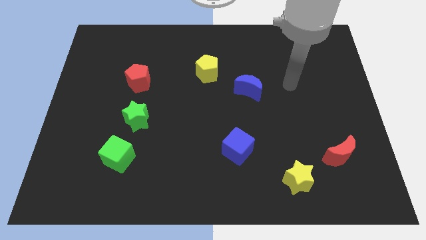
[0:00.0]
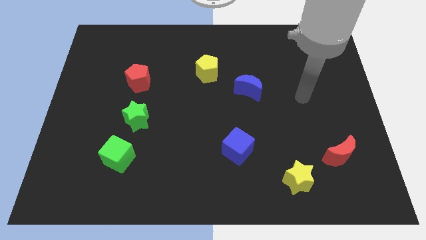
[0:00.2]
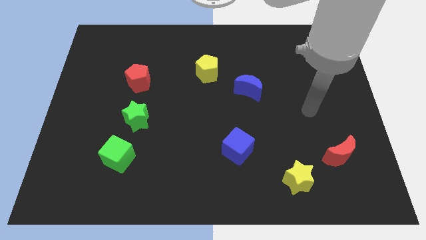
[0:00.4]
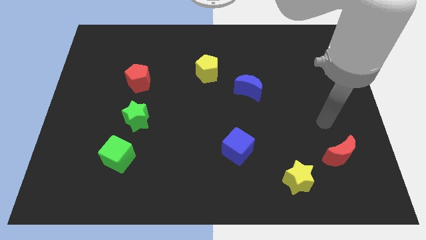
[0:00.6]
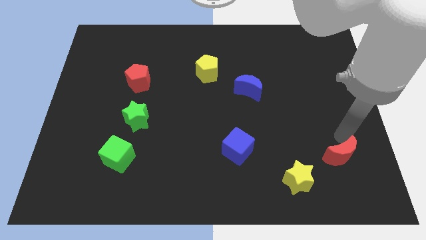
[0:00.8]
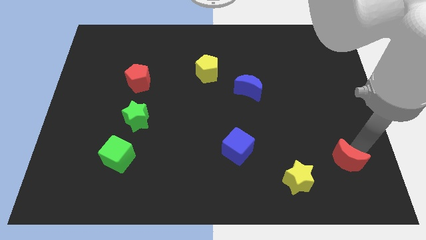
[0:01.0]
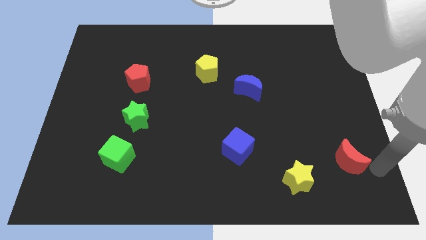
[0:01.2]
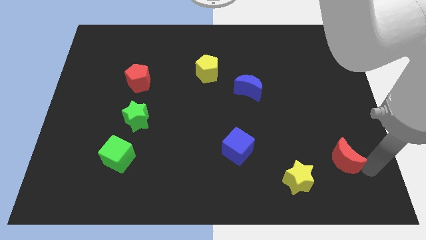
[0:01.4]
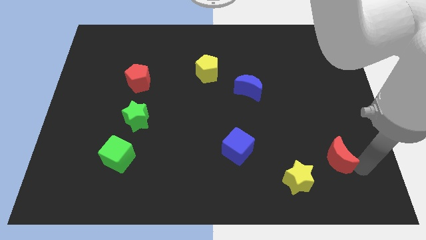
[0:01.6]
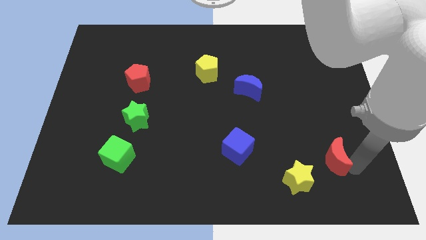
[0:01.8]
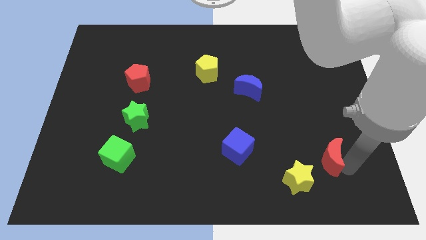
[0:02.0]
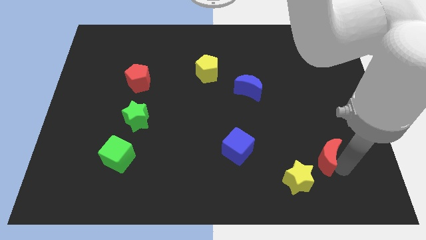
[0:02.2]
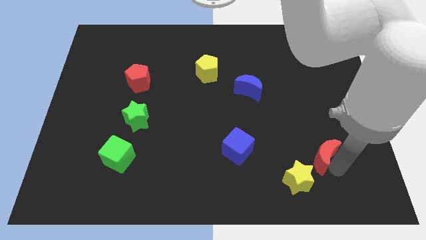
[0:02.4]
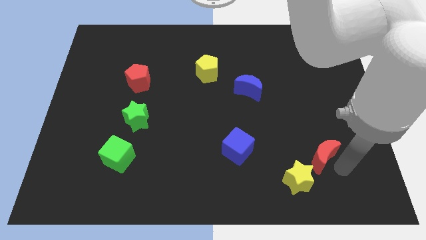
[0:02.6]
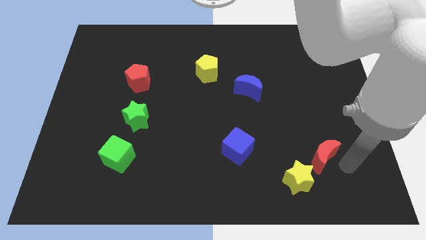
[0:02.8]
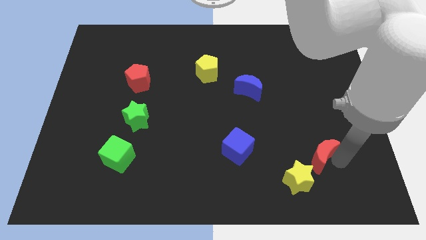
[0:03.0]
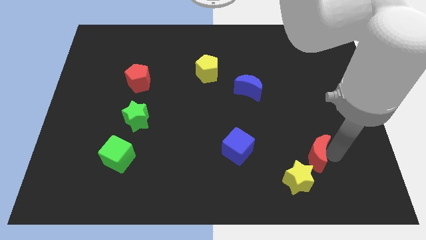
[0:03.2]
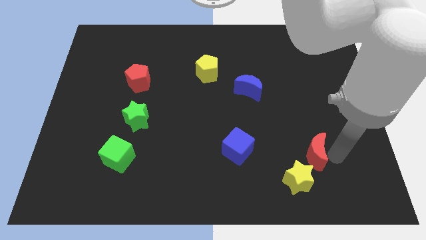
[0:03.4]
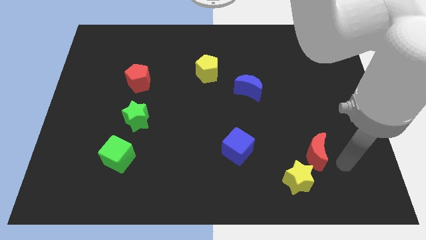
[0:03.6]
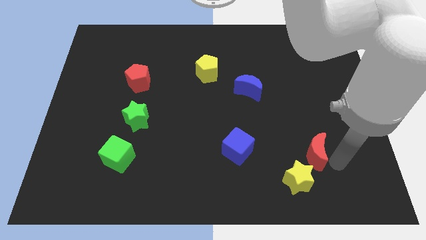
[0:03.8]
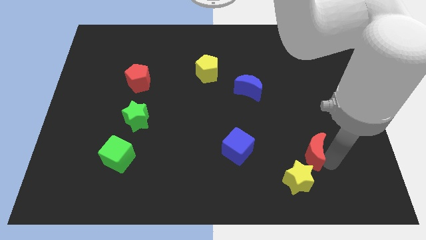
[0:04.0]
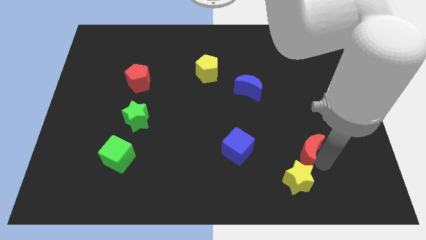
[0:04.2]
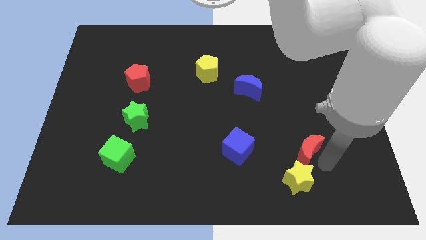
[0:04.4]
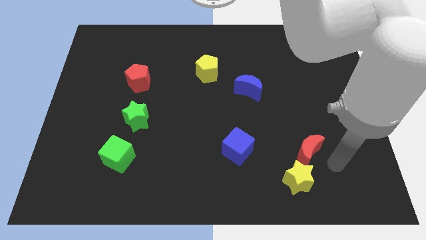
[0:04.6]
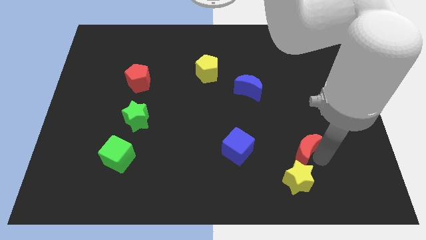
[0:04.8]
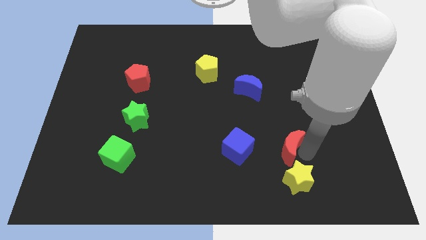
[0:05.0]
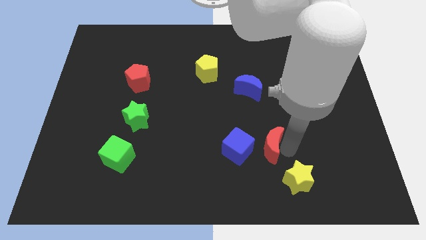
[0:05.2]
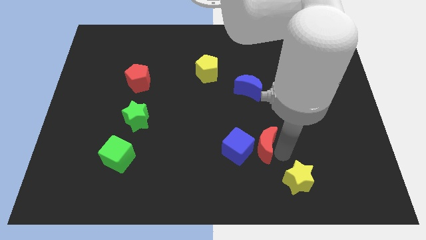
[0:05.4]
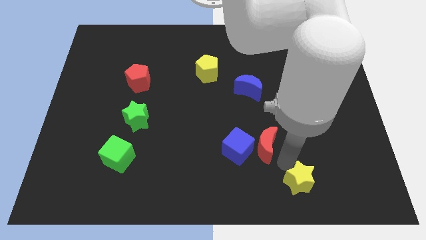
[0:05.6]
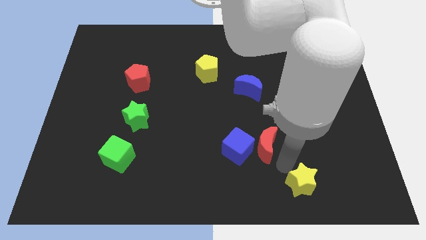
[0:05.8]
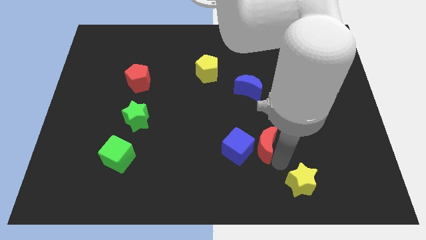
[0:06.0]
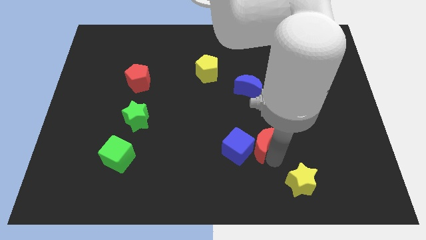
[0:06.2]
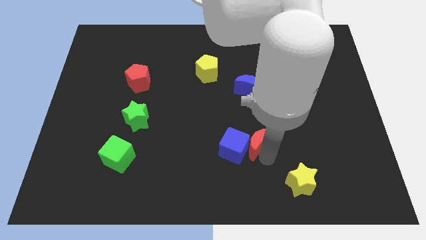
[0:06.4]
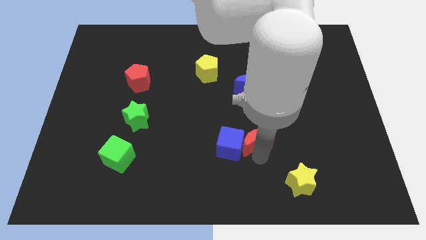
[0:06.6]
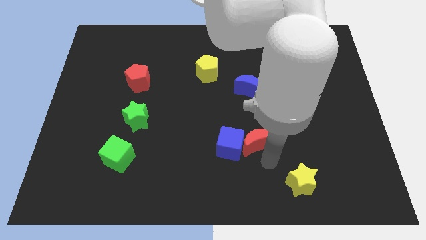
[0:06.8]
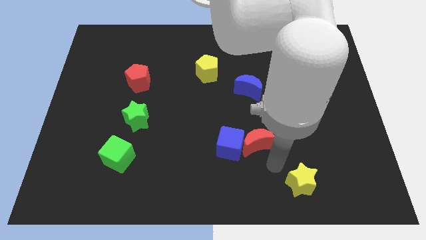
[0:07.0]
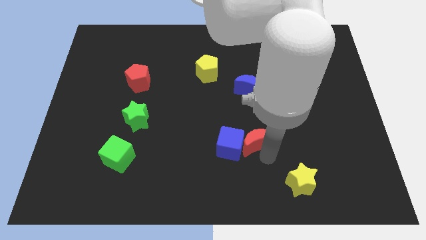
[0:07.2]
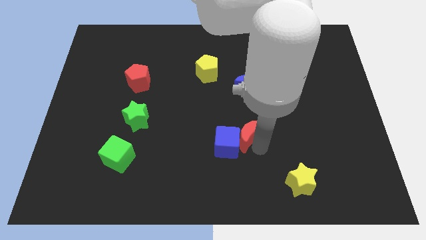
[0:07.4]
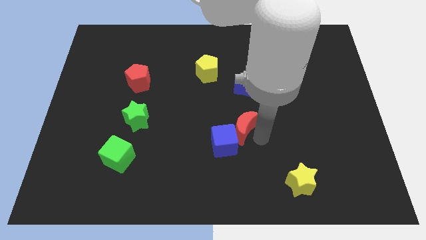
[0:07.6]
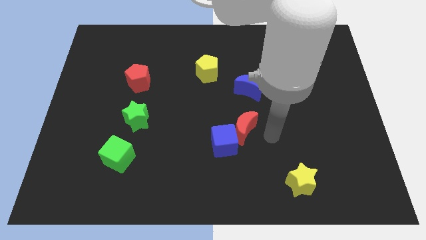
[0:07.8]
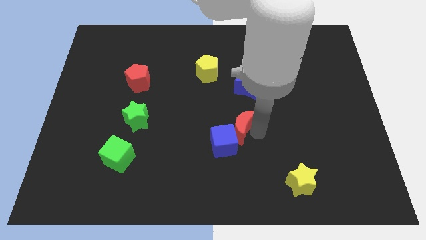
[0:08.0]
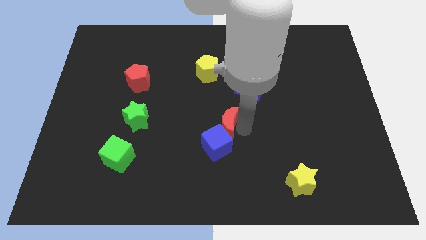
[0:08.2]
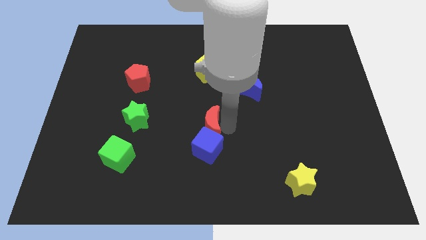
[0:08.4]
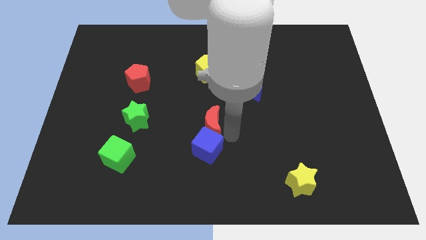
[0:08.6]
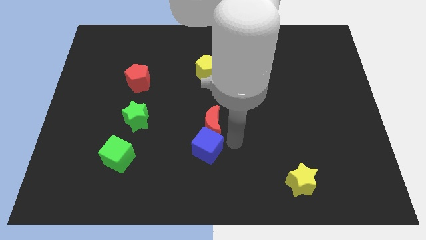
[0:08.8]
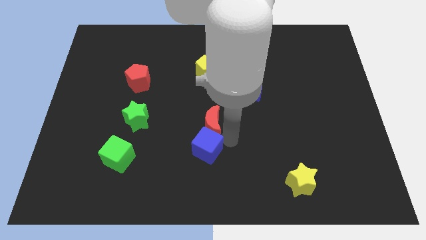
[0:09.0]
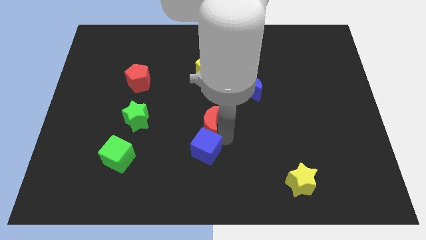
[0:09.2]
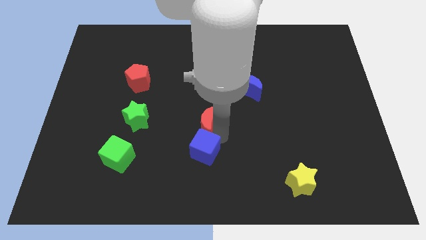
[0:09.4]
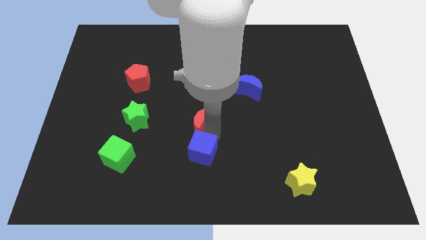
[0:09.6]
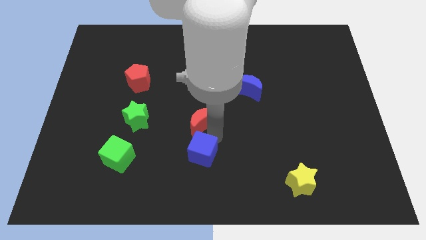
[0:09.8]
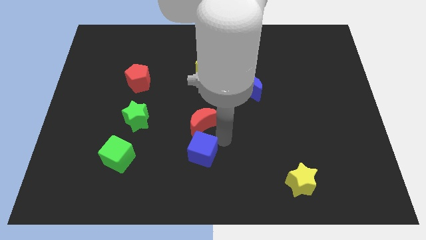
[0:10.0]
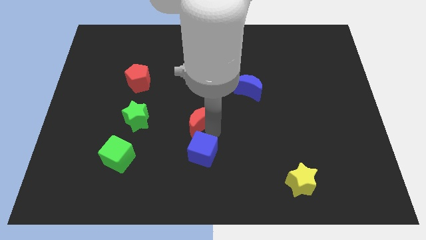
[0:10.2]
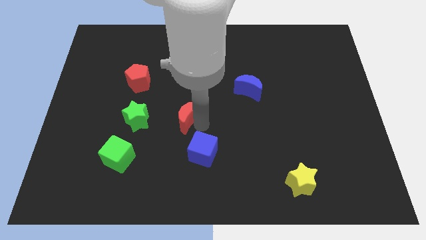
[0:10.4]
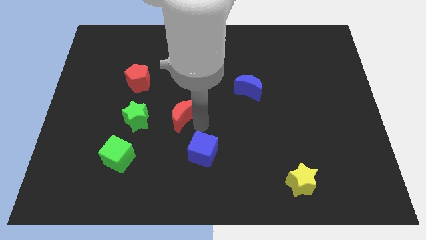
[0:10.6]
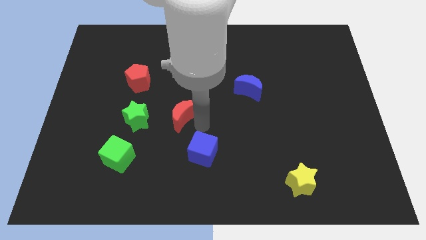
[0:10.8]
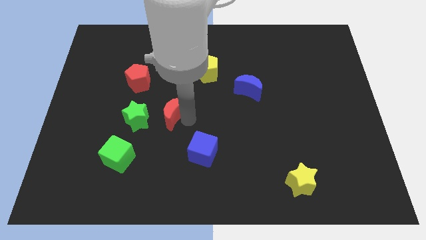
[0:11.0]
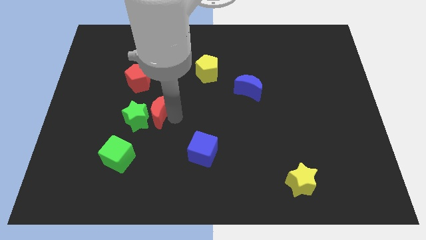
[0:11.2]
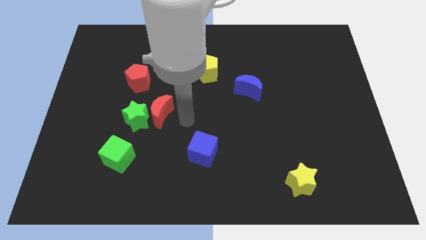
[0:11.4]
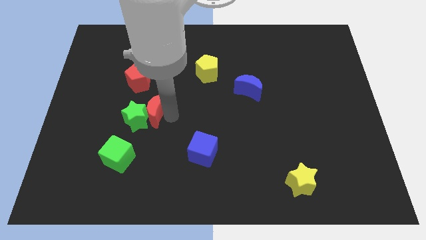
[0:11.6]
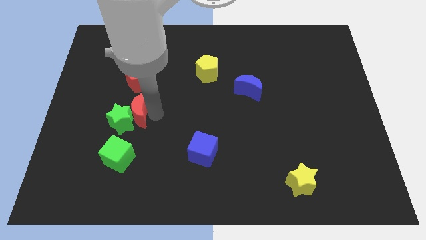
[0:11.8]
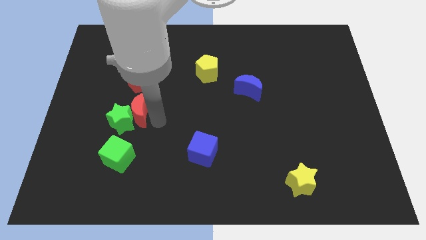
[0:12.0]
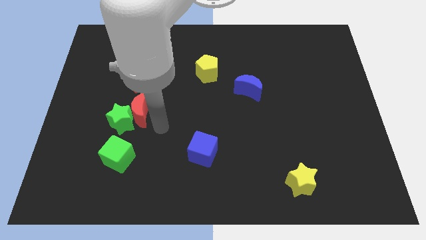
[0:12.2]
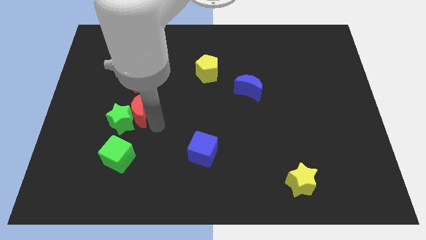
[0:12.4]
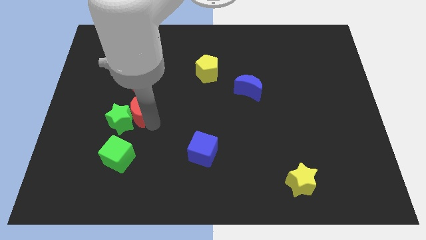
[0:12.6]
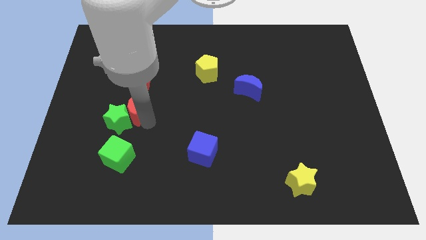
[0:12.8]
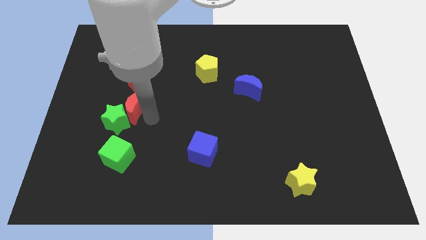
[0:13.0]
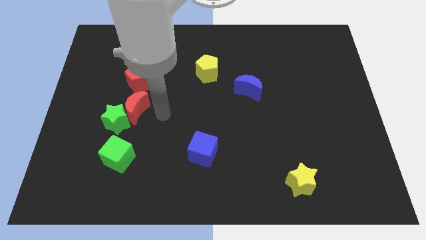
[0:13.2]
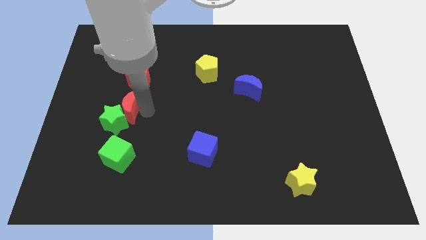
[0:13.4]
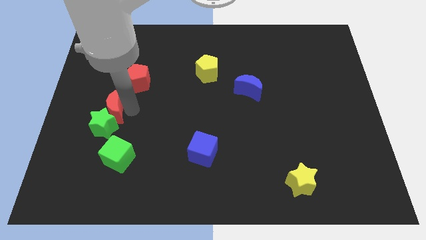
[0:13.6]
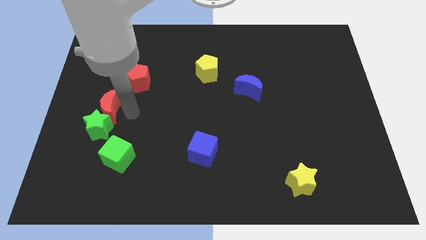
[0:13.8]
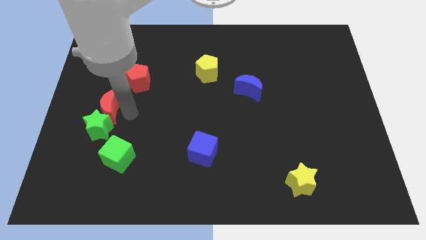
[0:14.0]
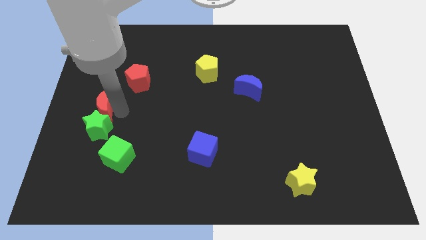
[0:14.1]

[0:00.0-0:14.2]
slide the red moon to the left side of the board
